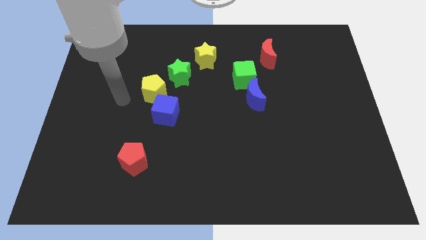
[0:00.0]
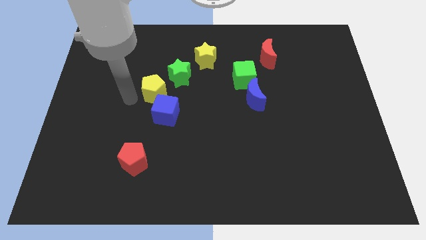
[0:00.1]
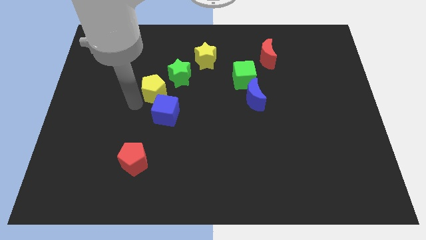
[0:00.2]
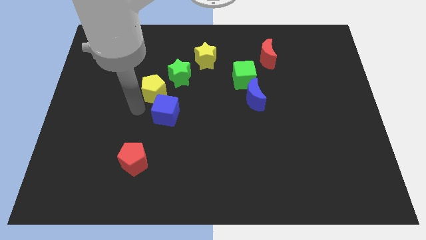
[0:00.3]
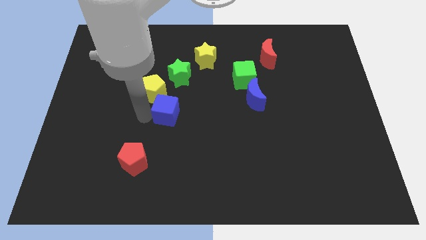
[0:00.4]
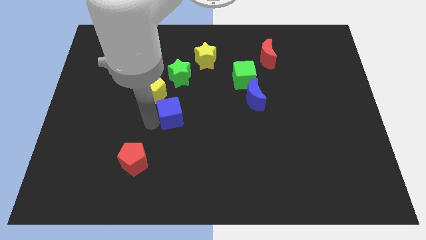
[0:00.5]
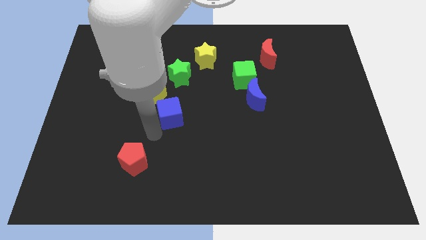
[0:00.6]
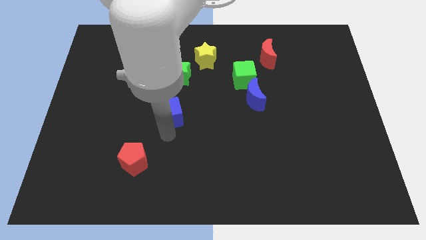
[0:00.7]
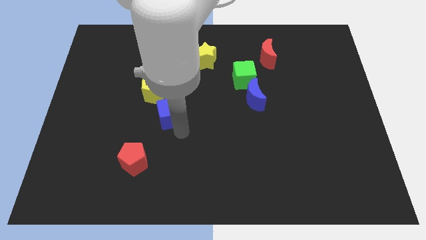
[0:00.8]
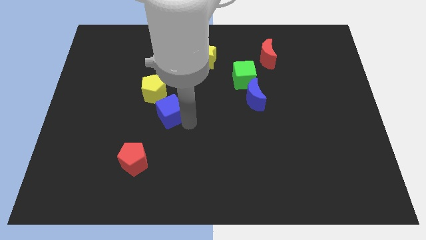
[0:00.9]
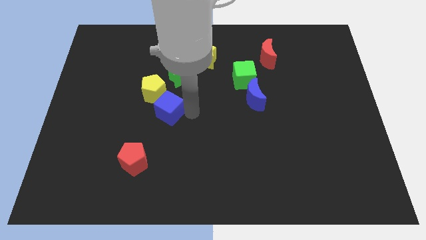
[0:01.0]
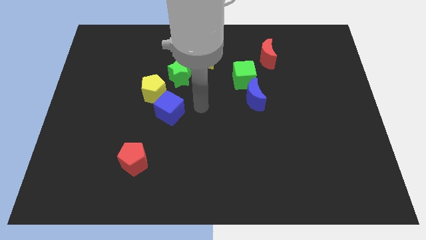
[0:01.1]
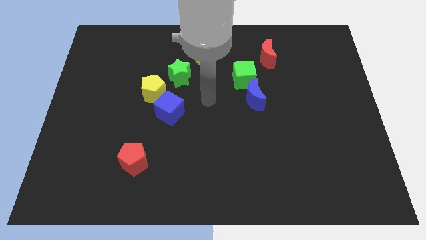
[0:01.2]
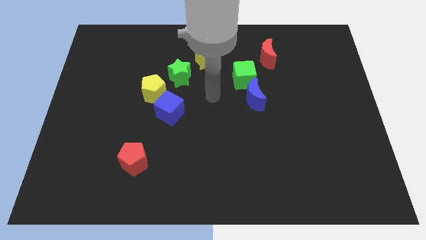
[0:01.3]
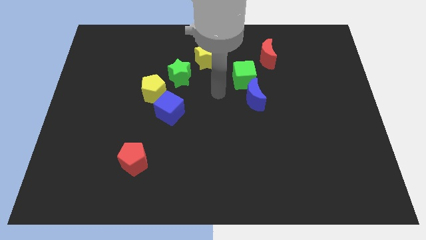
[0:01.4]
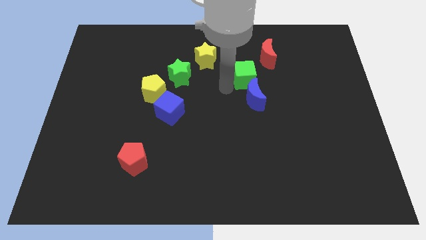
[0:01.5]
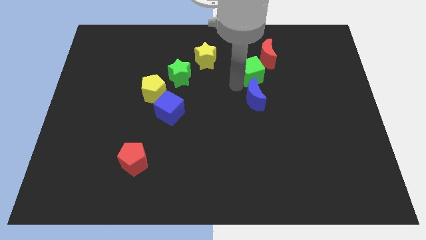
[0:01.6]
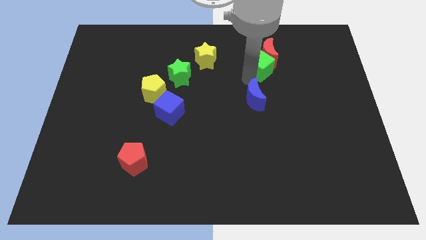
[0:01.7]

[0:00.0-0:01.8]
separate the blue moon from the green cube

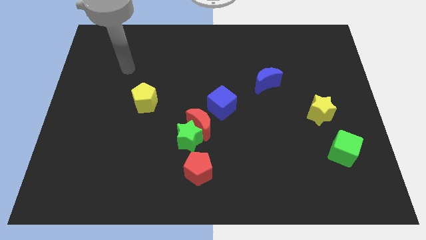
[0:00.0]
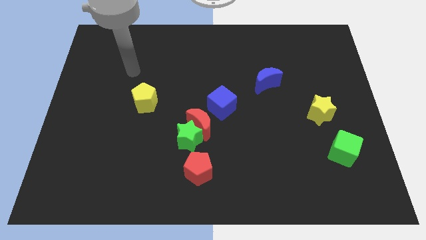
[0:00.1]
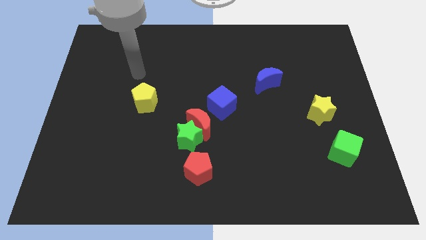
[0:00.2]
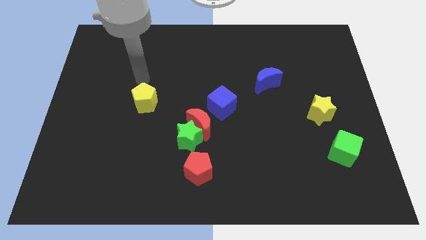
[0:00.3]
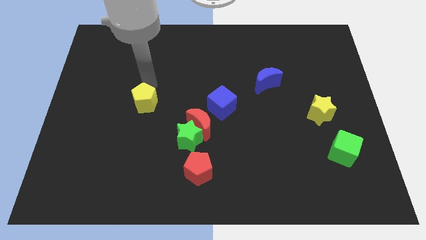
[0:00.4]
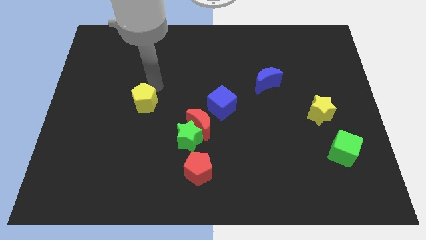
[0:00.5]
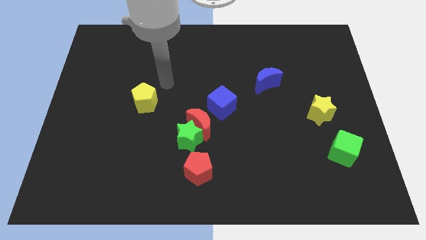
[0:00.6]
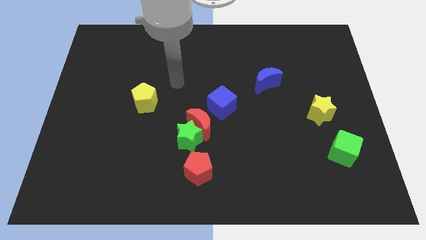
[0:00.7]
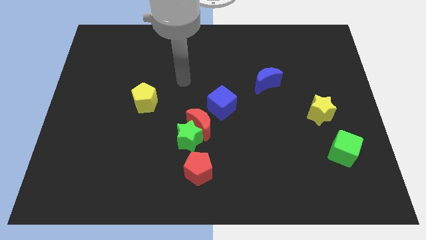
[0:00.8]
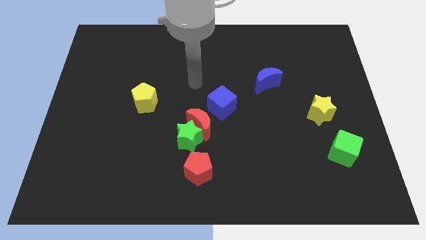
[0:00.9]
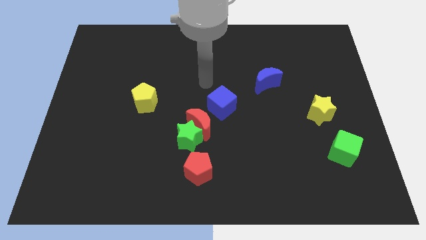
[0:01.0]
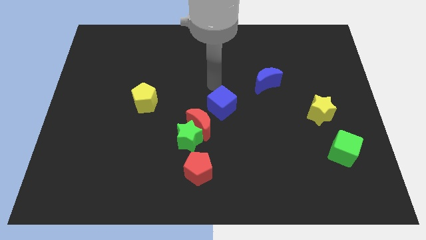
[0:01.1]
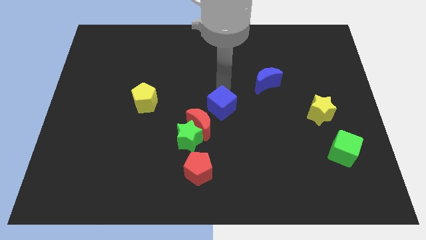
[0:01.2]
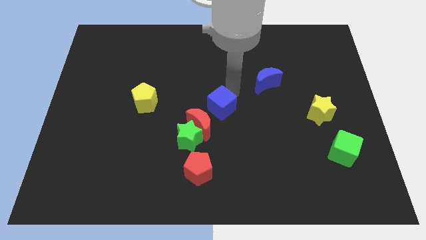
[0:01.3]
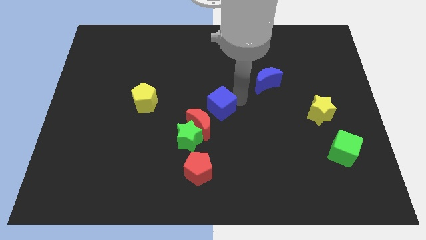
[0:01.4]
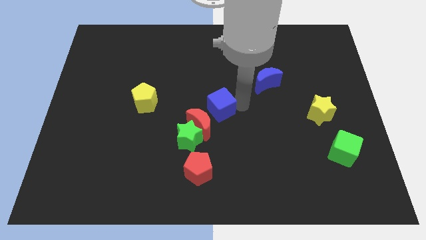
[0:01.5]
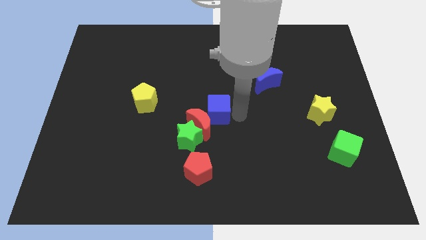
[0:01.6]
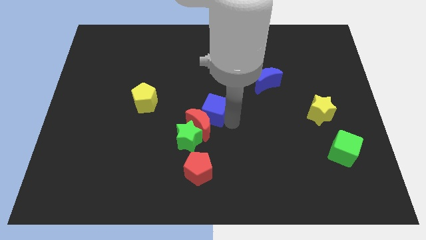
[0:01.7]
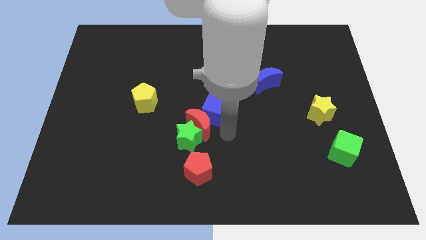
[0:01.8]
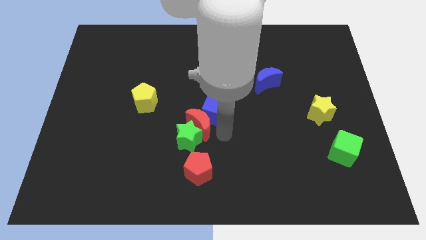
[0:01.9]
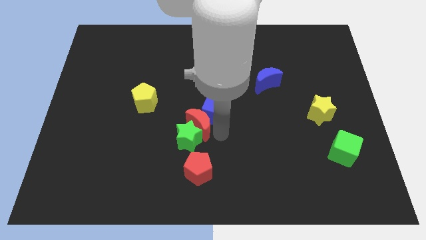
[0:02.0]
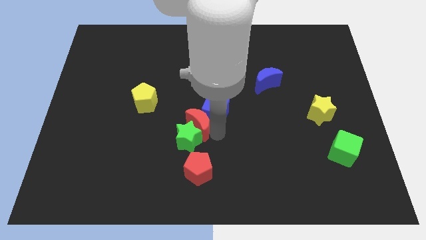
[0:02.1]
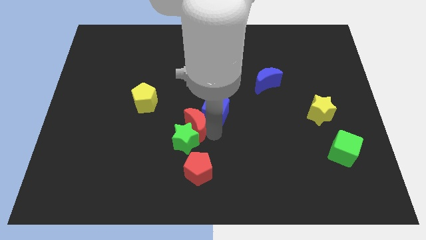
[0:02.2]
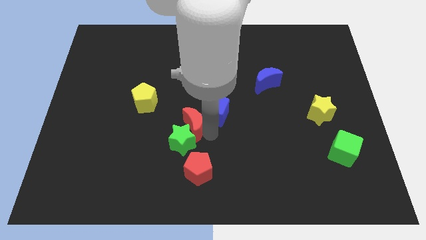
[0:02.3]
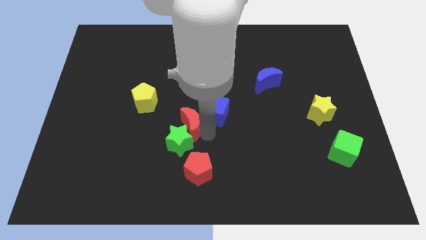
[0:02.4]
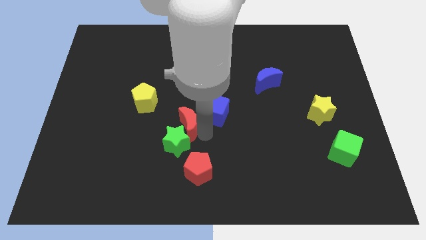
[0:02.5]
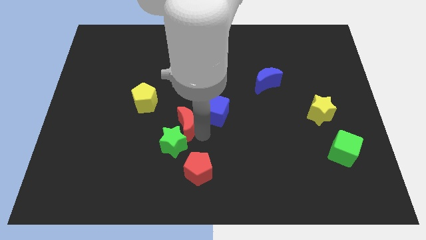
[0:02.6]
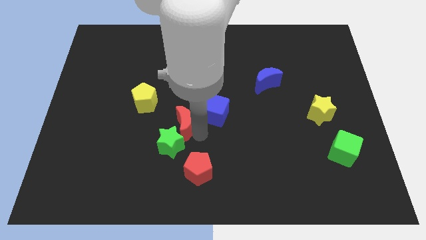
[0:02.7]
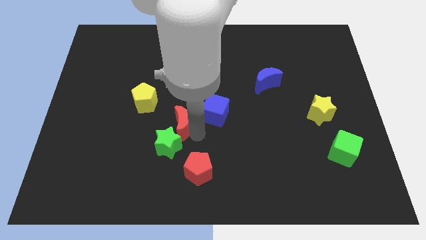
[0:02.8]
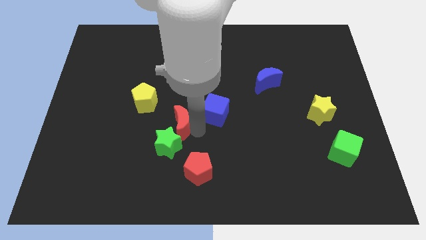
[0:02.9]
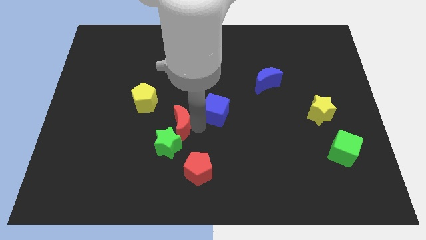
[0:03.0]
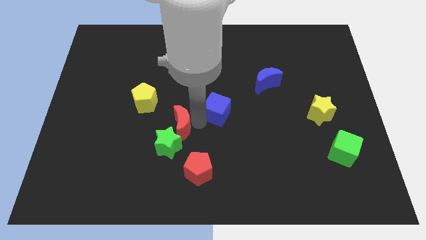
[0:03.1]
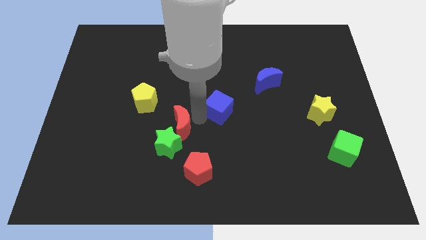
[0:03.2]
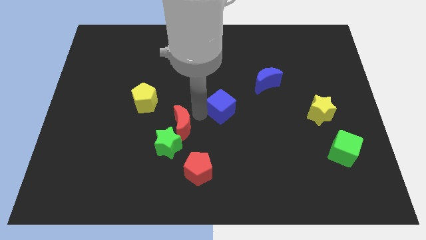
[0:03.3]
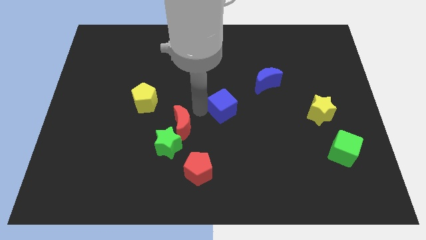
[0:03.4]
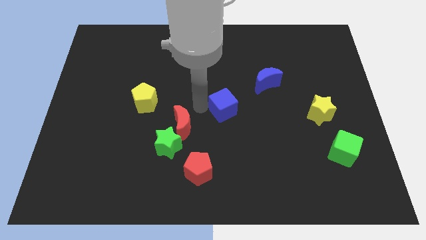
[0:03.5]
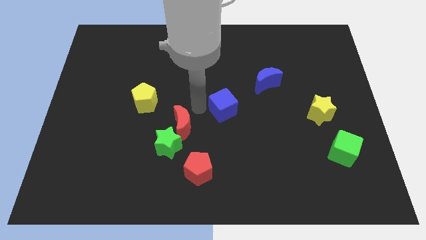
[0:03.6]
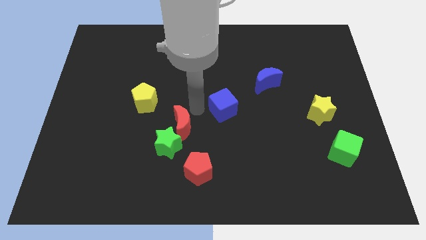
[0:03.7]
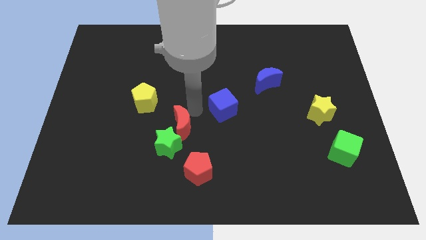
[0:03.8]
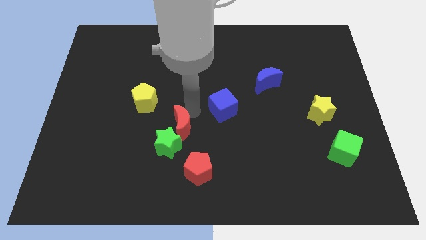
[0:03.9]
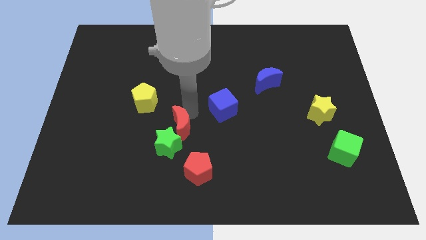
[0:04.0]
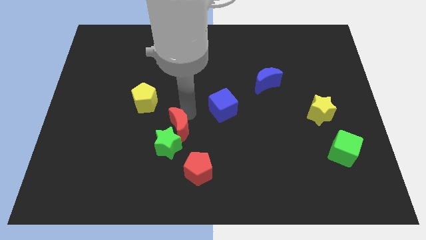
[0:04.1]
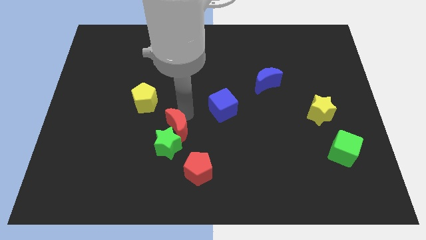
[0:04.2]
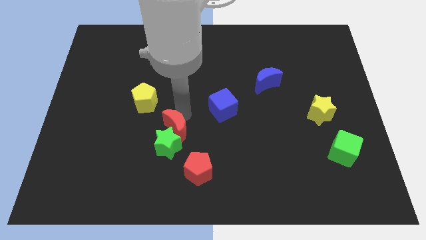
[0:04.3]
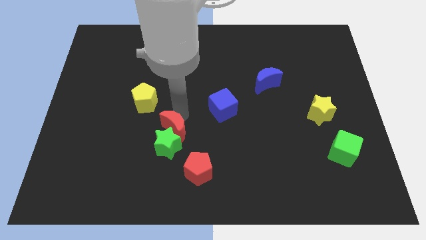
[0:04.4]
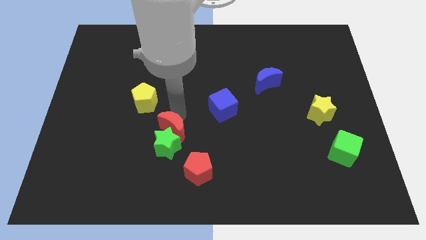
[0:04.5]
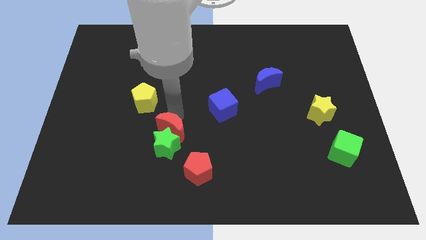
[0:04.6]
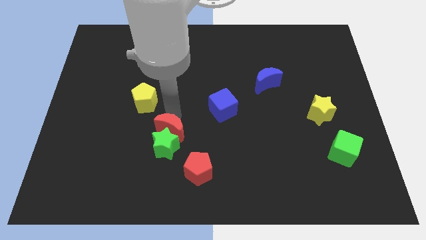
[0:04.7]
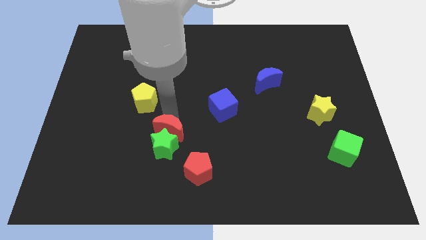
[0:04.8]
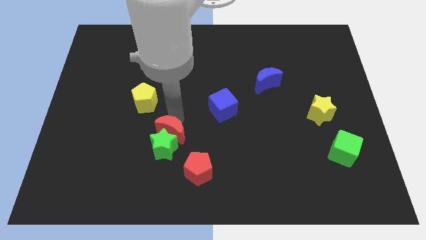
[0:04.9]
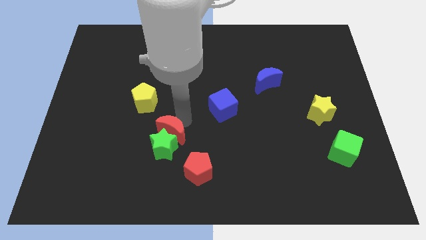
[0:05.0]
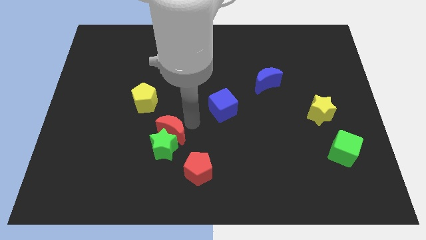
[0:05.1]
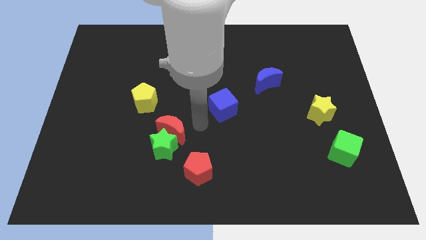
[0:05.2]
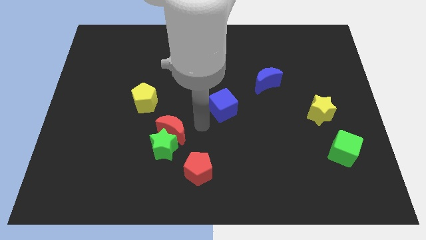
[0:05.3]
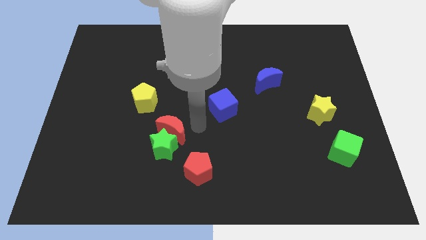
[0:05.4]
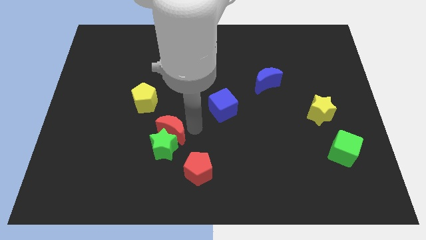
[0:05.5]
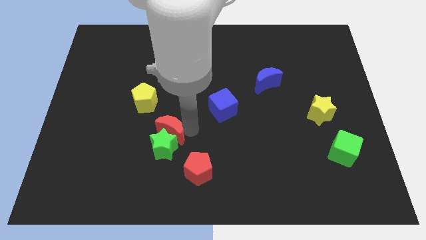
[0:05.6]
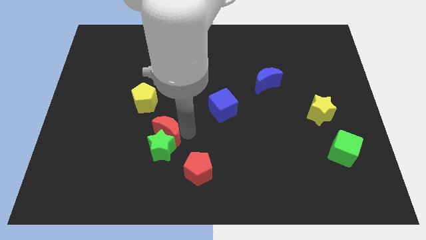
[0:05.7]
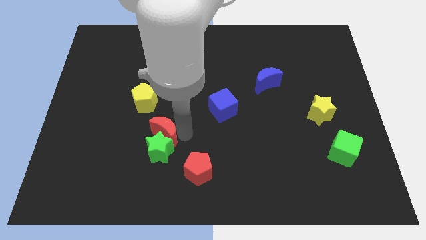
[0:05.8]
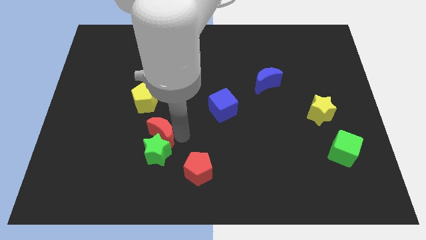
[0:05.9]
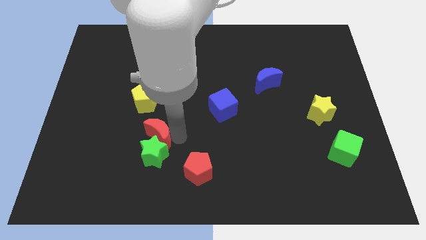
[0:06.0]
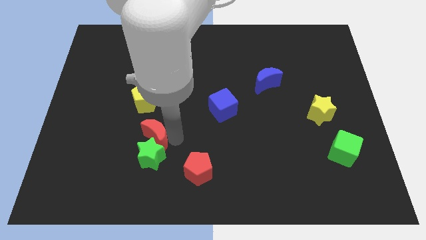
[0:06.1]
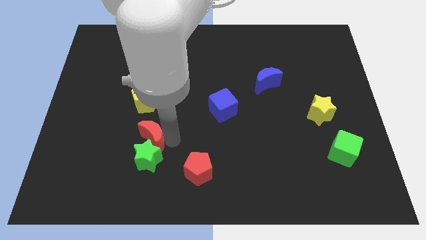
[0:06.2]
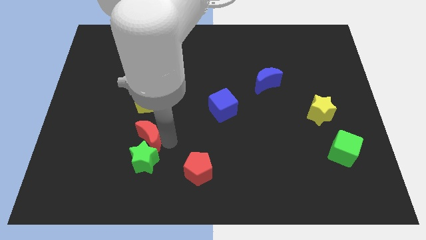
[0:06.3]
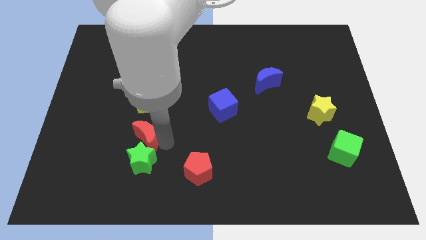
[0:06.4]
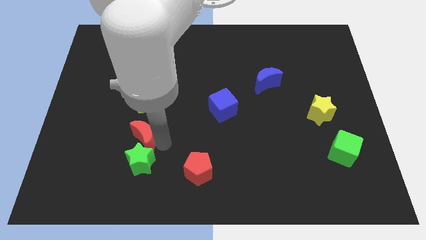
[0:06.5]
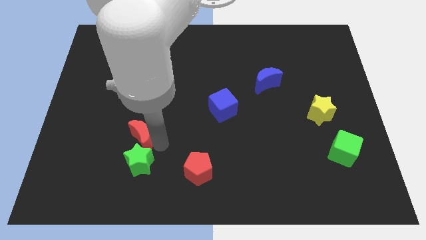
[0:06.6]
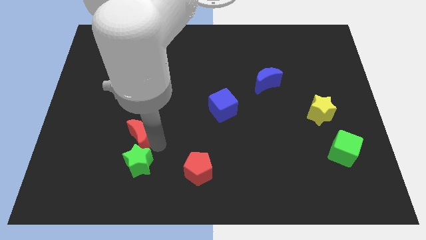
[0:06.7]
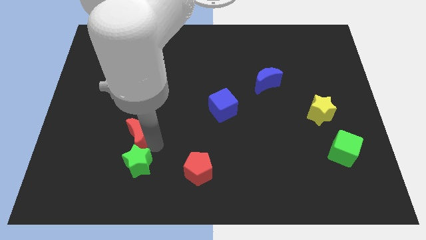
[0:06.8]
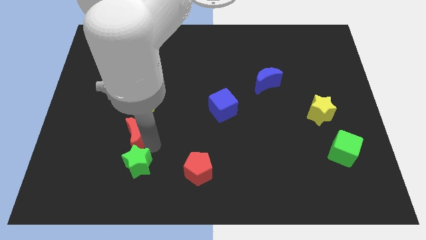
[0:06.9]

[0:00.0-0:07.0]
pull the red moon apart from the green star and blue cube

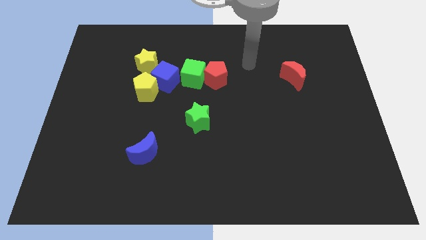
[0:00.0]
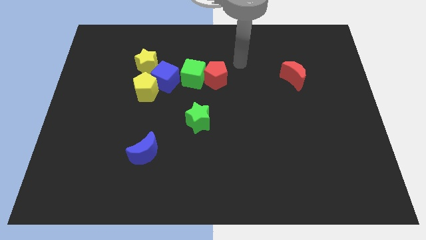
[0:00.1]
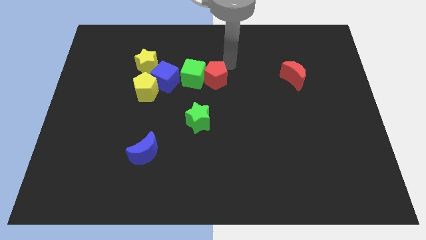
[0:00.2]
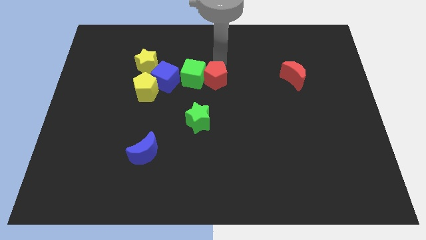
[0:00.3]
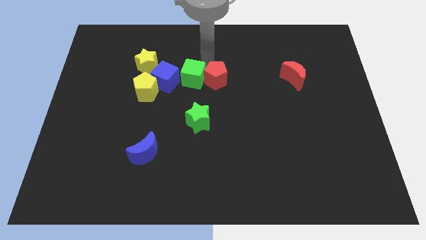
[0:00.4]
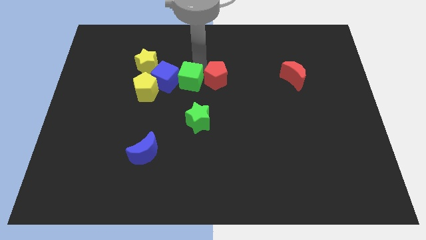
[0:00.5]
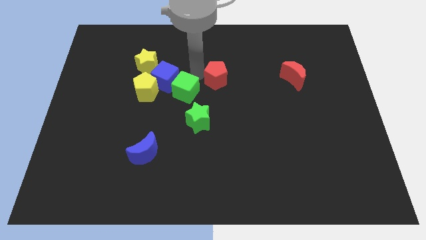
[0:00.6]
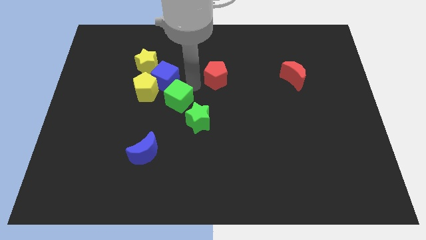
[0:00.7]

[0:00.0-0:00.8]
pull the red pentagon apart from the green cube
